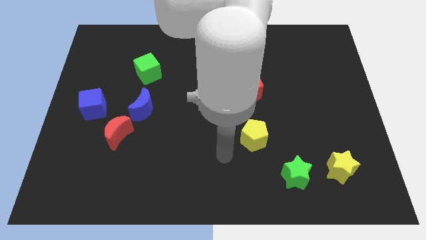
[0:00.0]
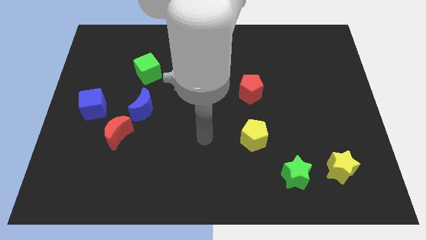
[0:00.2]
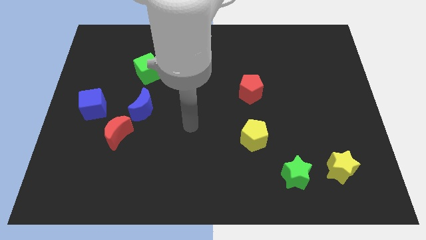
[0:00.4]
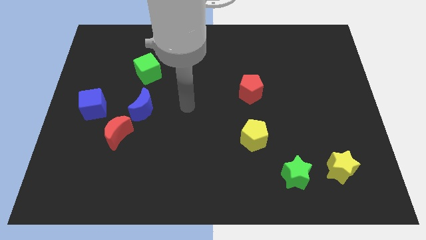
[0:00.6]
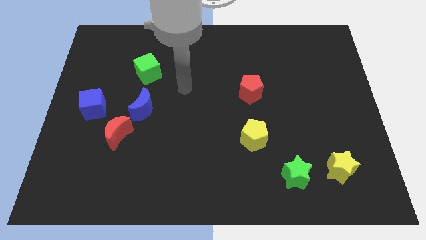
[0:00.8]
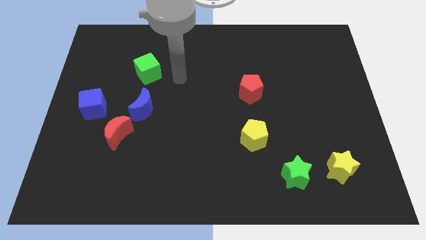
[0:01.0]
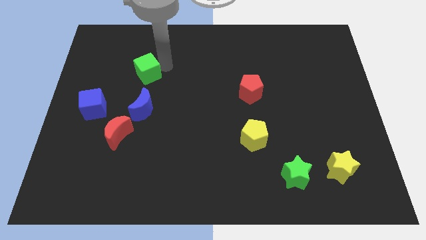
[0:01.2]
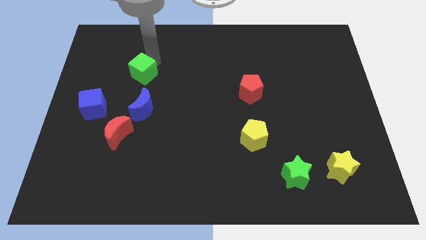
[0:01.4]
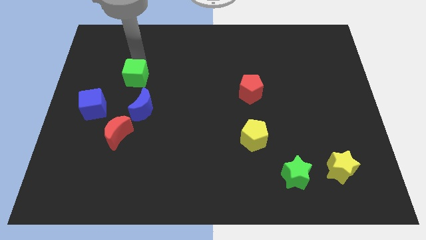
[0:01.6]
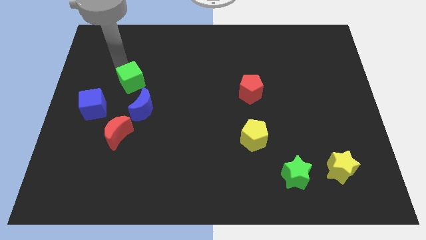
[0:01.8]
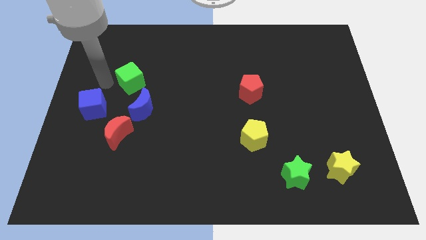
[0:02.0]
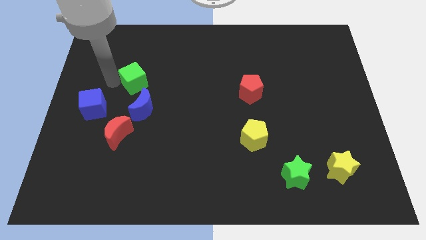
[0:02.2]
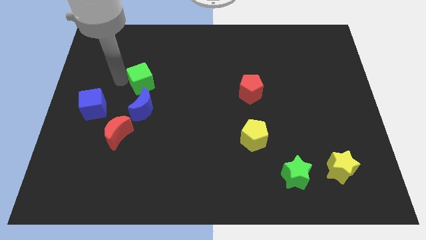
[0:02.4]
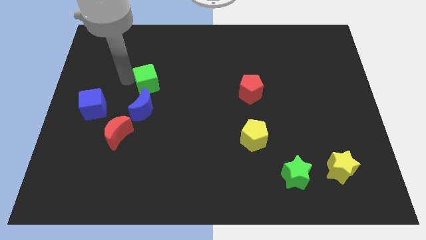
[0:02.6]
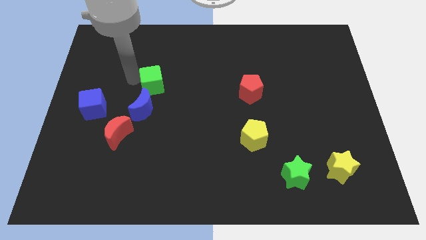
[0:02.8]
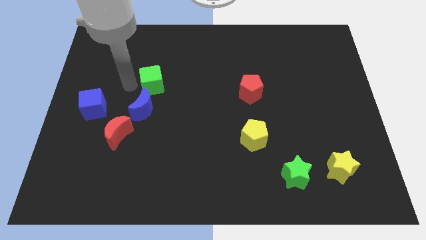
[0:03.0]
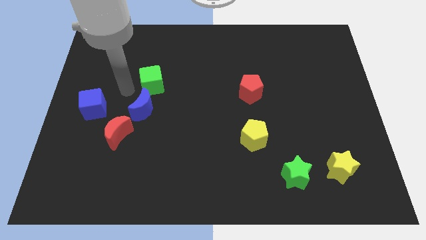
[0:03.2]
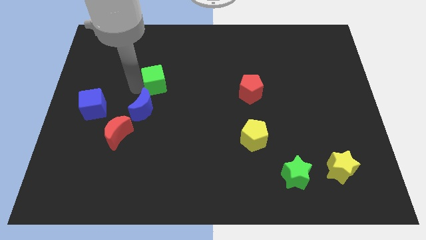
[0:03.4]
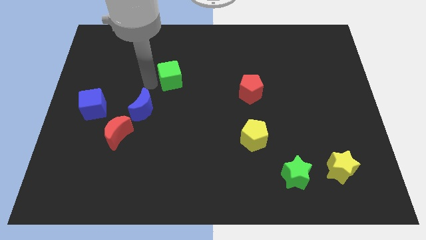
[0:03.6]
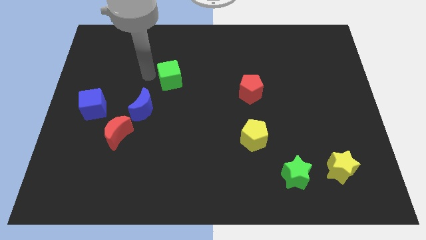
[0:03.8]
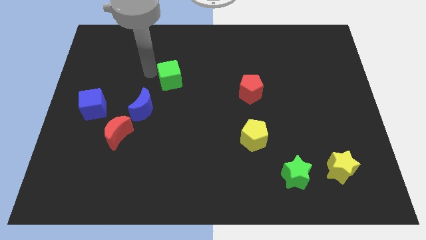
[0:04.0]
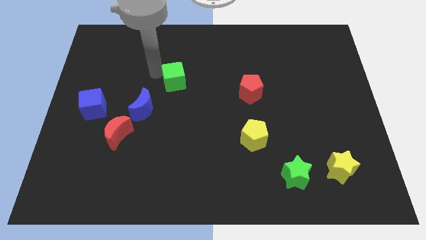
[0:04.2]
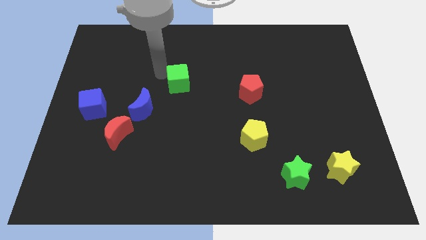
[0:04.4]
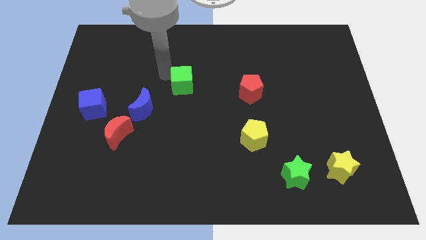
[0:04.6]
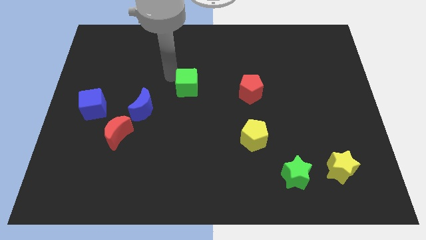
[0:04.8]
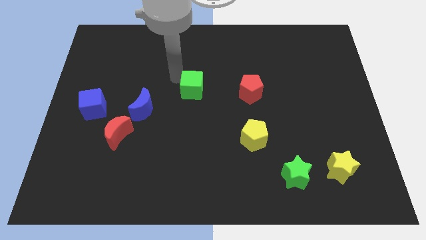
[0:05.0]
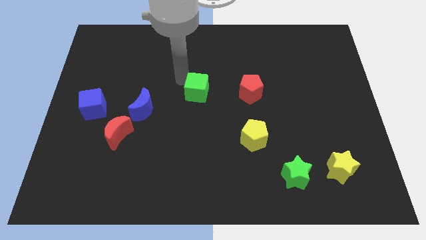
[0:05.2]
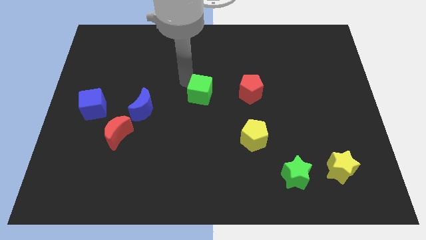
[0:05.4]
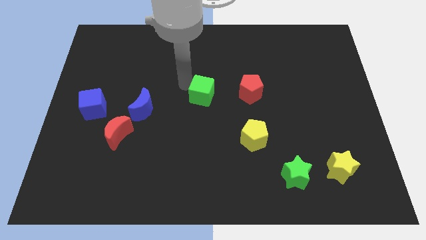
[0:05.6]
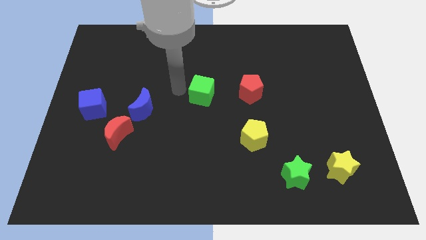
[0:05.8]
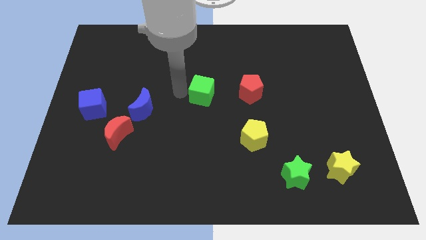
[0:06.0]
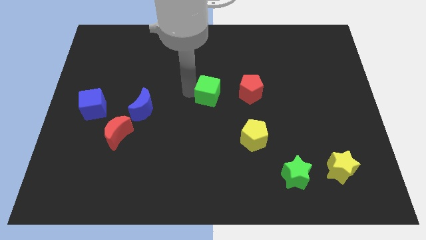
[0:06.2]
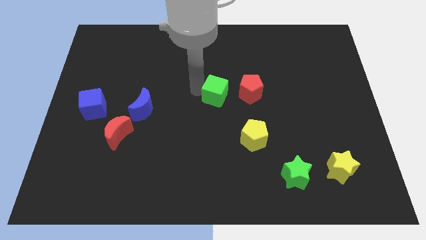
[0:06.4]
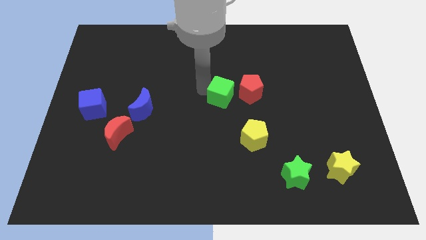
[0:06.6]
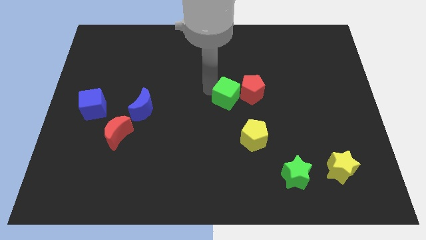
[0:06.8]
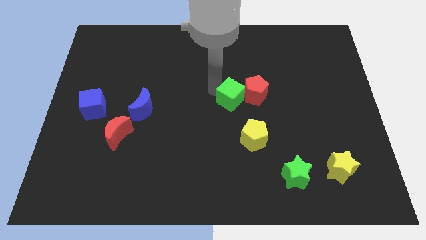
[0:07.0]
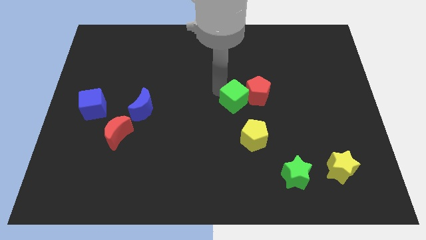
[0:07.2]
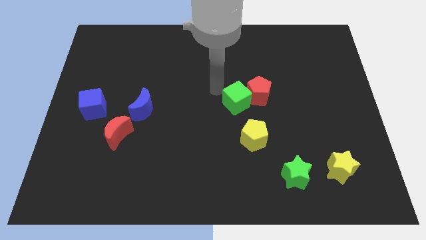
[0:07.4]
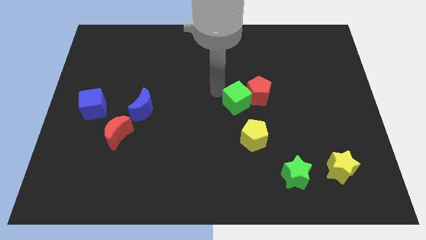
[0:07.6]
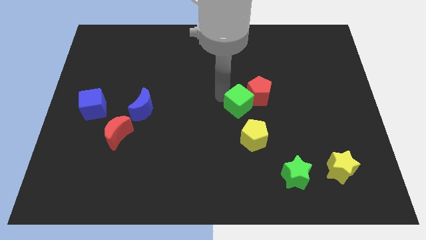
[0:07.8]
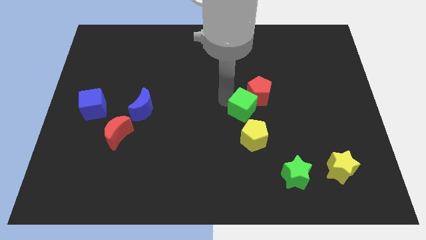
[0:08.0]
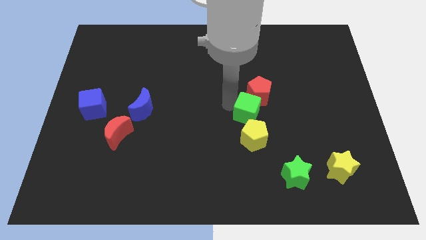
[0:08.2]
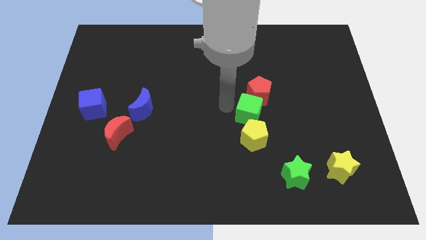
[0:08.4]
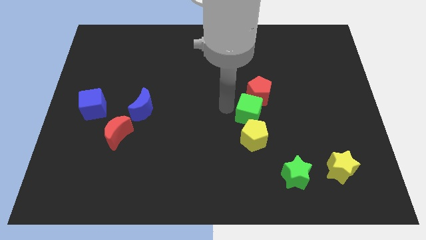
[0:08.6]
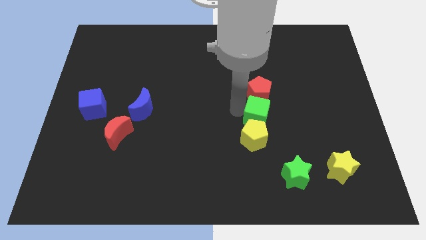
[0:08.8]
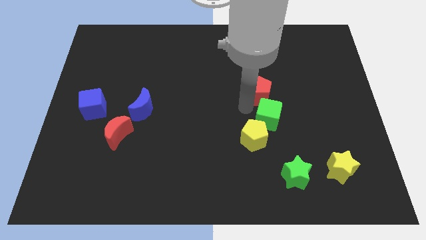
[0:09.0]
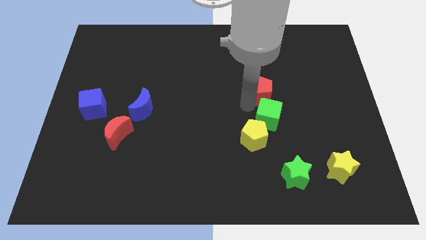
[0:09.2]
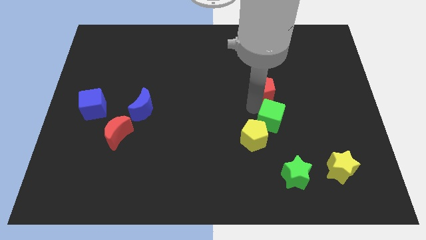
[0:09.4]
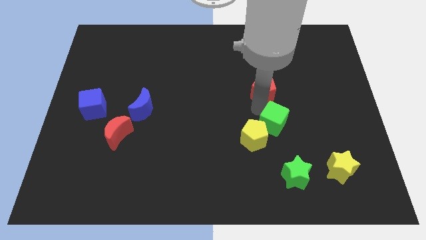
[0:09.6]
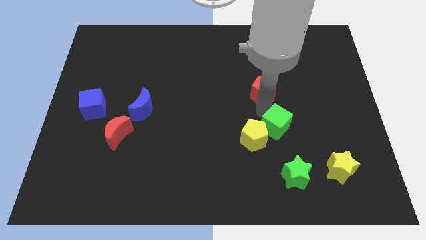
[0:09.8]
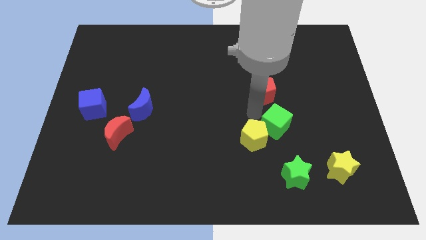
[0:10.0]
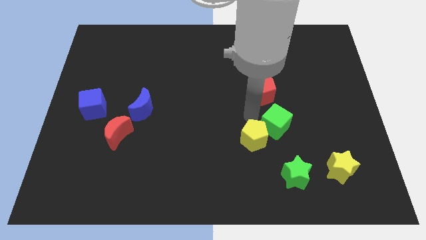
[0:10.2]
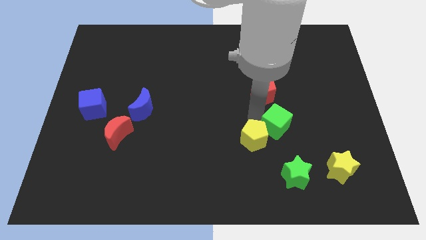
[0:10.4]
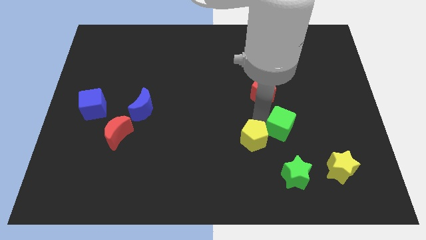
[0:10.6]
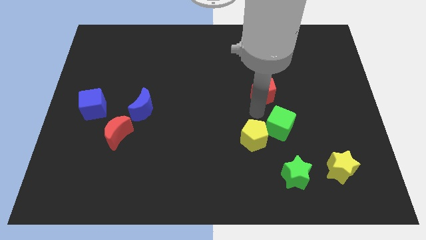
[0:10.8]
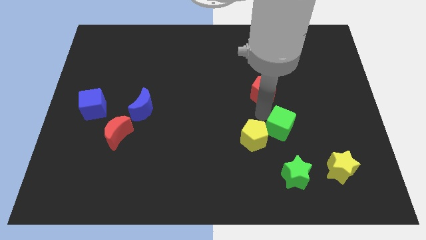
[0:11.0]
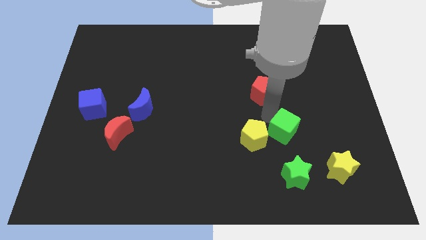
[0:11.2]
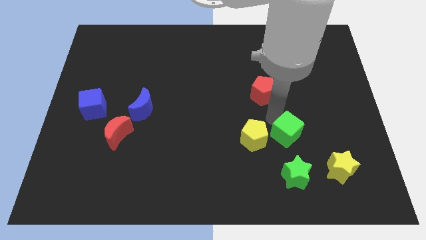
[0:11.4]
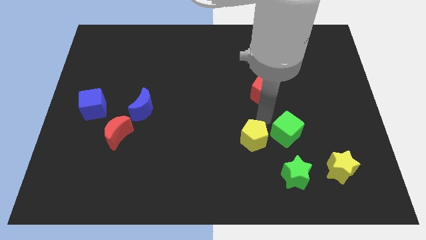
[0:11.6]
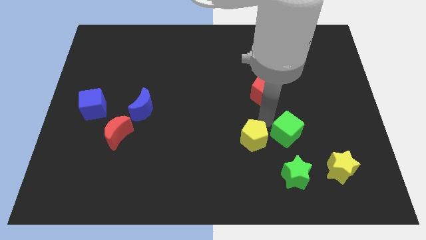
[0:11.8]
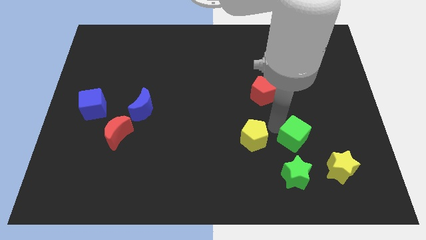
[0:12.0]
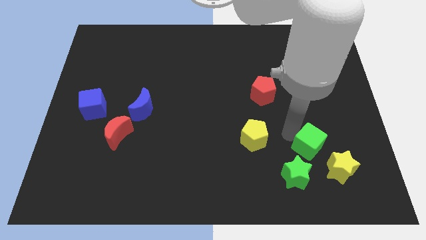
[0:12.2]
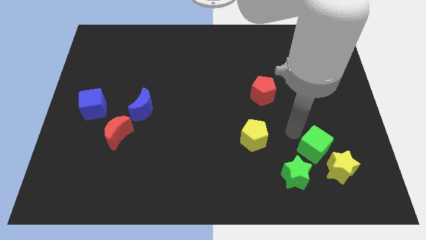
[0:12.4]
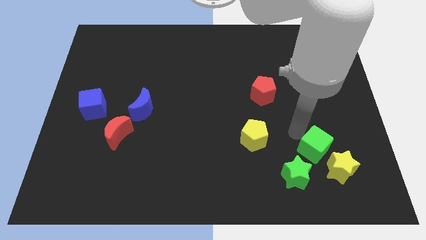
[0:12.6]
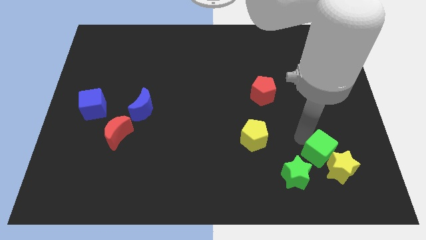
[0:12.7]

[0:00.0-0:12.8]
move the green cube towards the yellow star

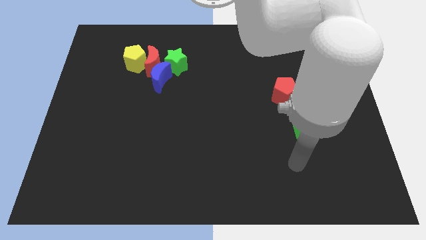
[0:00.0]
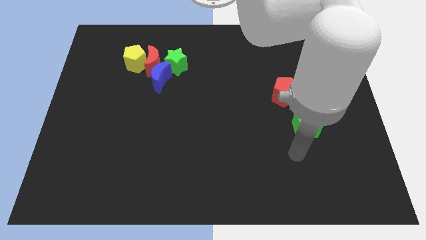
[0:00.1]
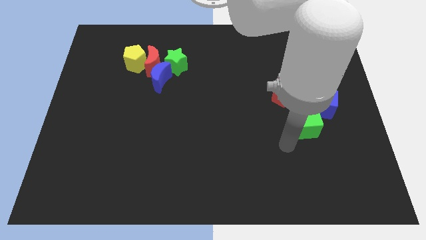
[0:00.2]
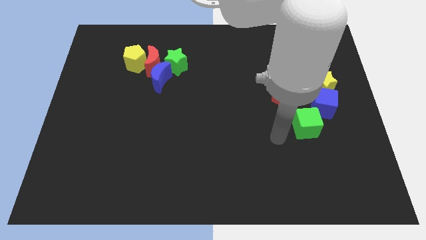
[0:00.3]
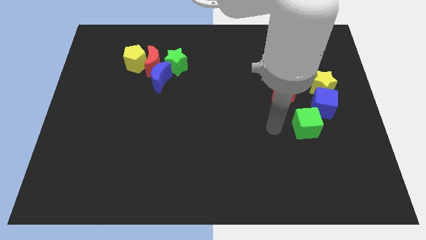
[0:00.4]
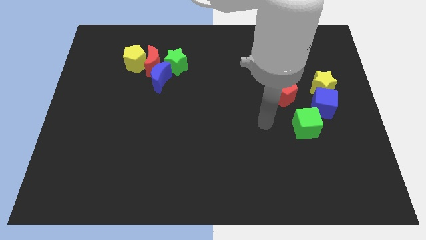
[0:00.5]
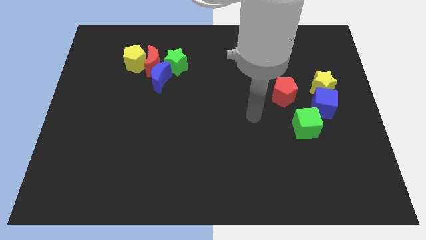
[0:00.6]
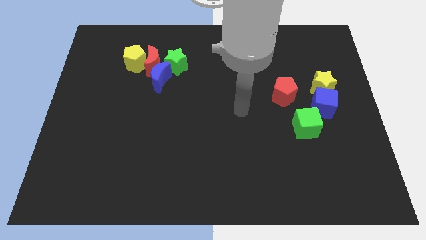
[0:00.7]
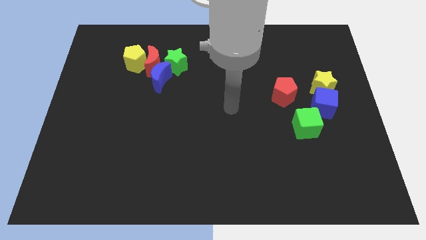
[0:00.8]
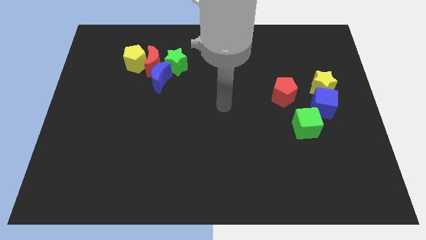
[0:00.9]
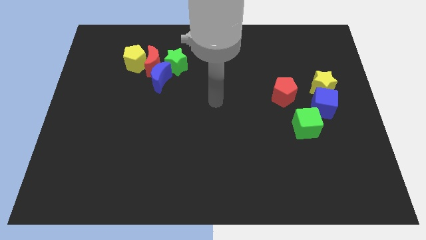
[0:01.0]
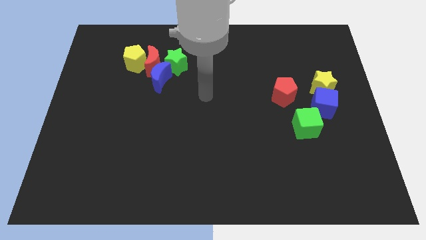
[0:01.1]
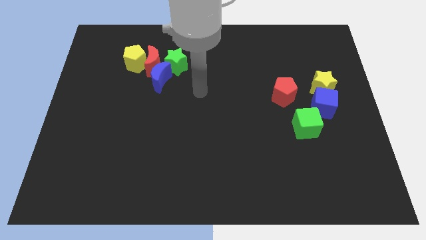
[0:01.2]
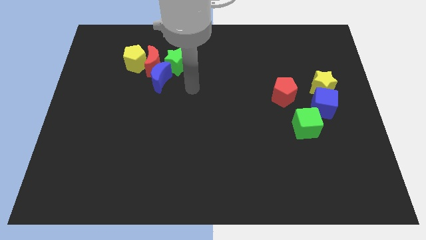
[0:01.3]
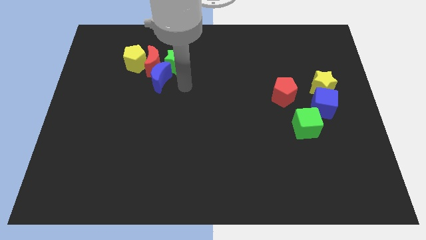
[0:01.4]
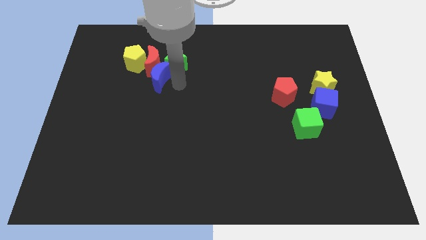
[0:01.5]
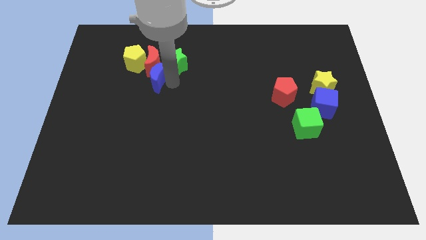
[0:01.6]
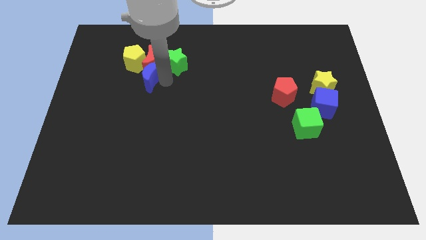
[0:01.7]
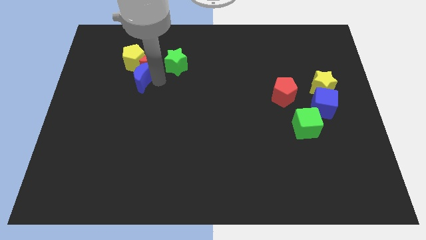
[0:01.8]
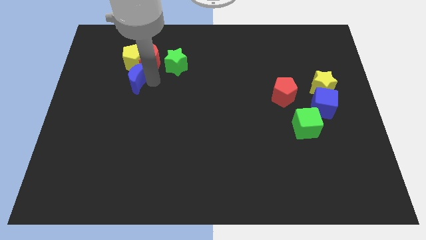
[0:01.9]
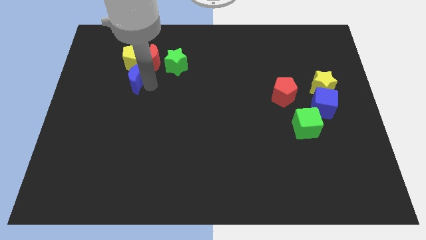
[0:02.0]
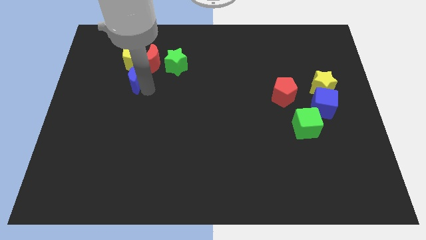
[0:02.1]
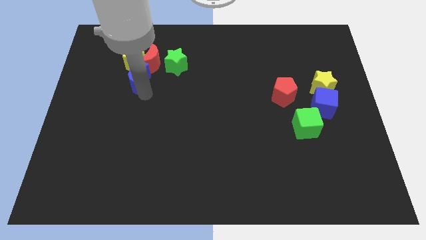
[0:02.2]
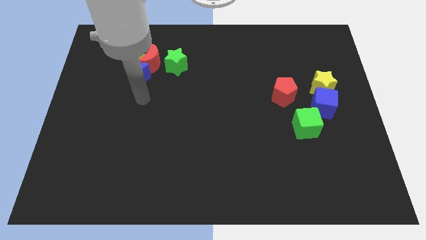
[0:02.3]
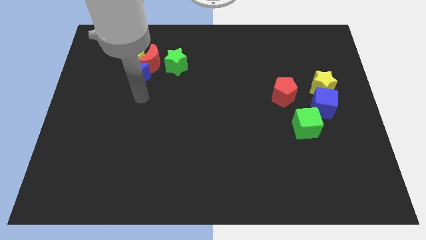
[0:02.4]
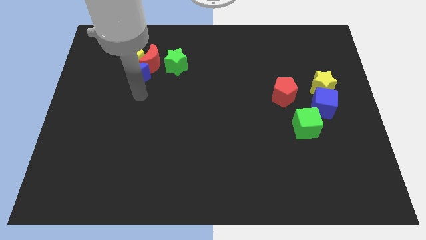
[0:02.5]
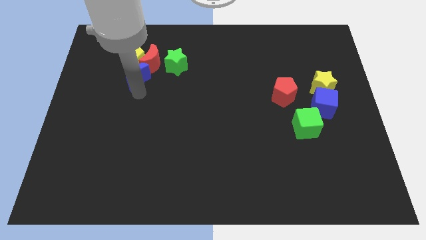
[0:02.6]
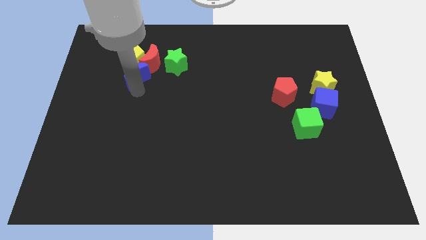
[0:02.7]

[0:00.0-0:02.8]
move the blue moon towards the yellow pentagon
